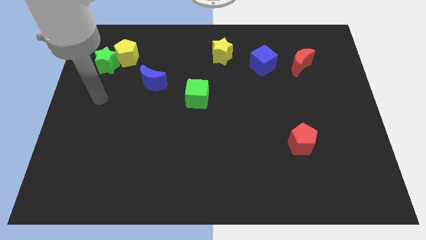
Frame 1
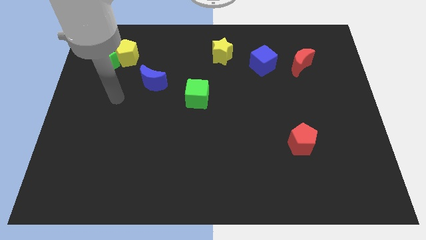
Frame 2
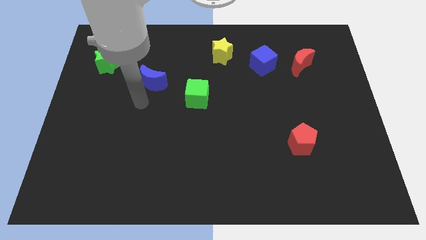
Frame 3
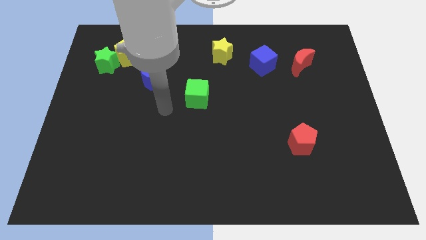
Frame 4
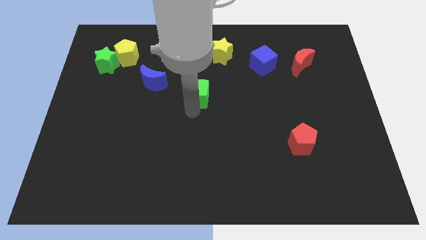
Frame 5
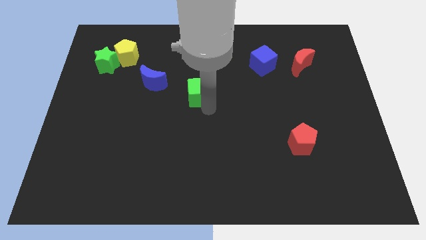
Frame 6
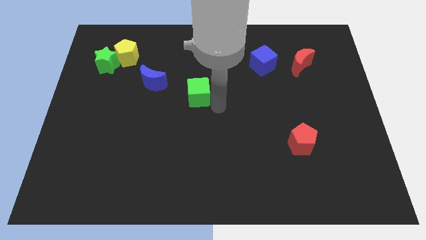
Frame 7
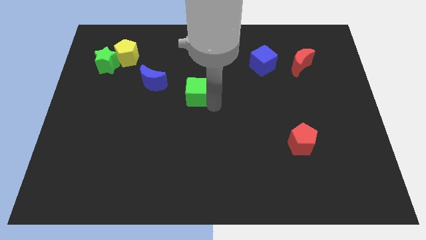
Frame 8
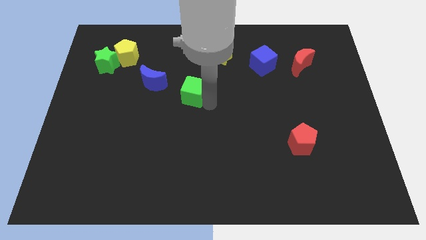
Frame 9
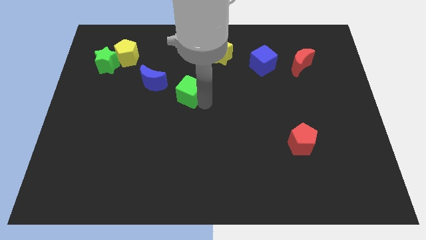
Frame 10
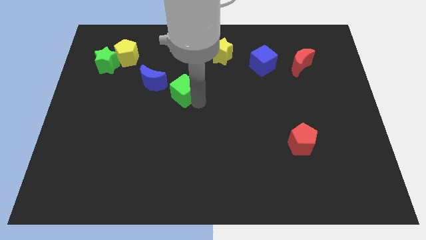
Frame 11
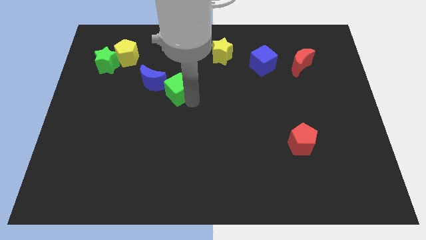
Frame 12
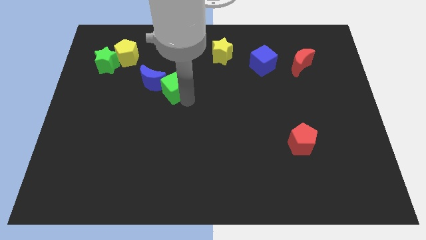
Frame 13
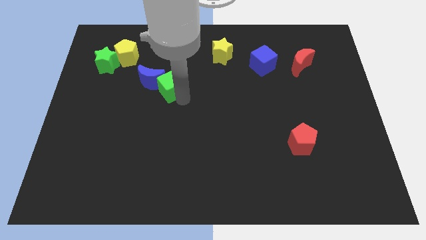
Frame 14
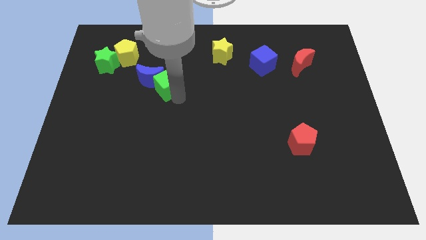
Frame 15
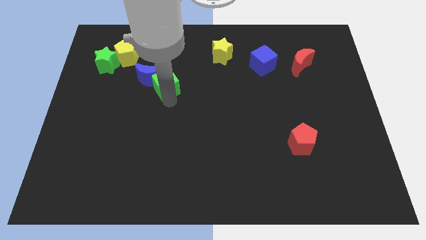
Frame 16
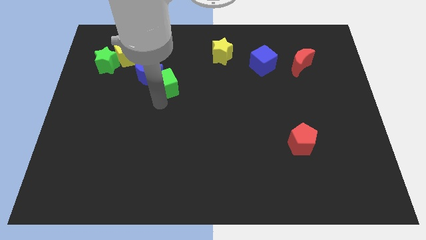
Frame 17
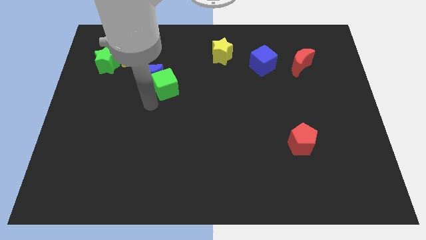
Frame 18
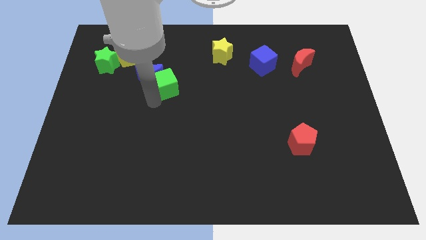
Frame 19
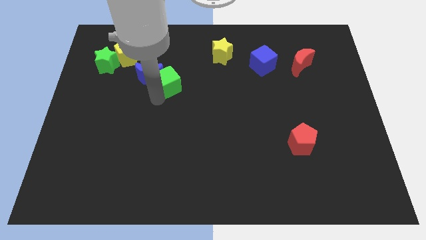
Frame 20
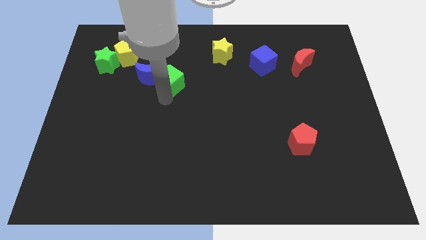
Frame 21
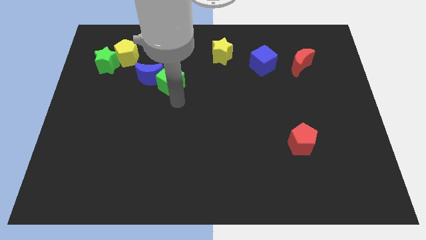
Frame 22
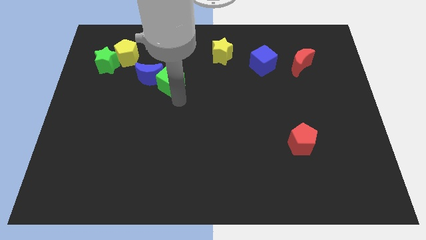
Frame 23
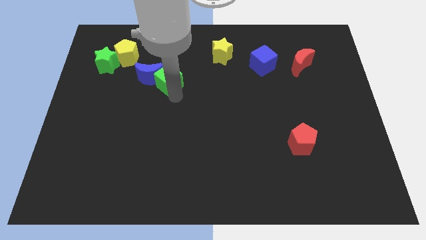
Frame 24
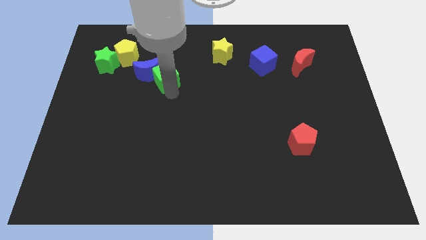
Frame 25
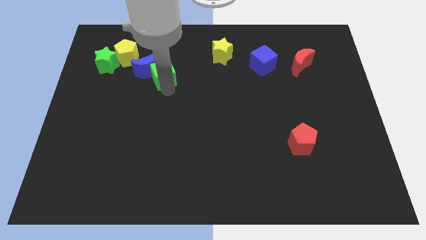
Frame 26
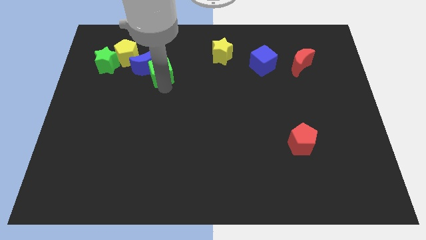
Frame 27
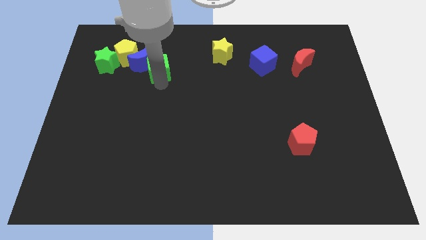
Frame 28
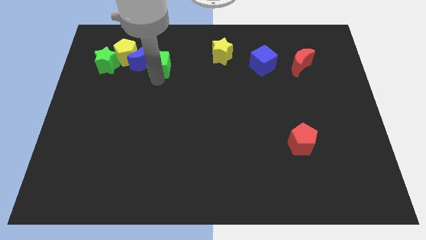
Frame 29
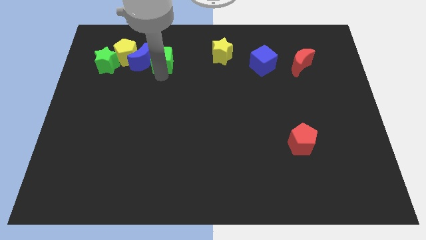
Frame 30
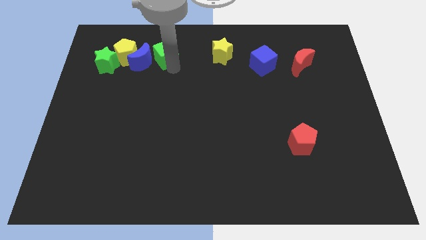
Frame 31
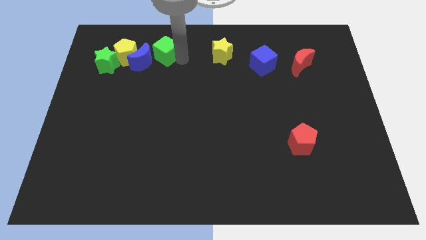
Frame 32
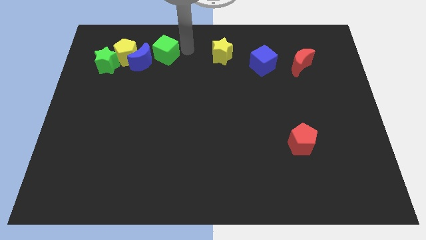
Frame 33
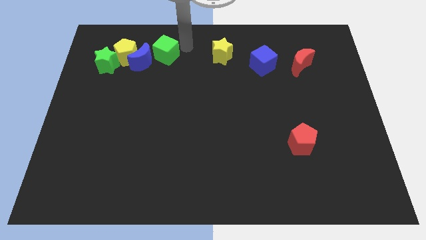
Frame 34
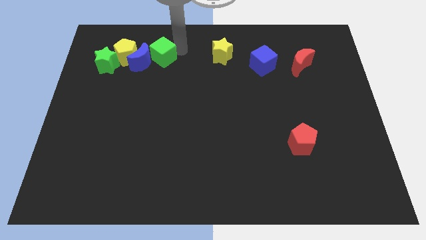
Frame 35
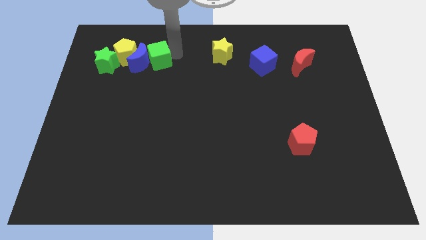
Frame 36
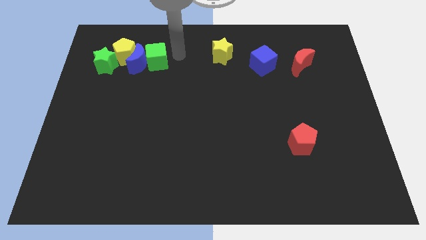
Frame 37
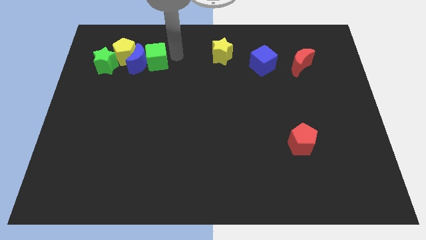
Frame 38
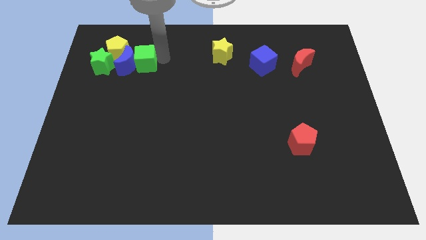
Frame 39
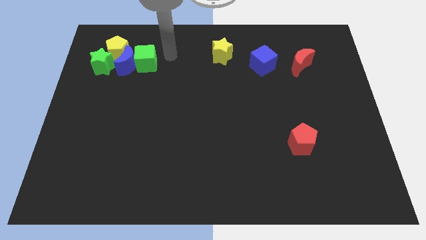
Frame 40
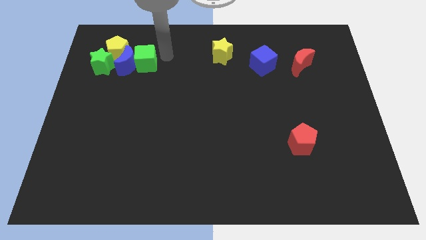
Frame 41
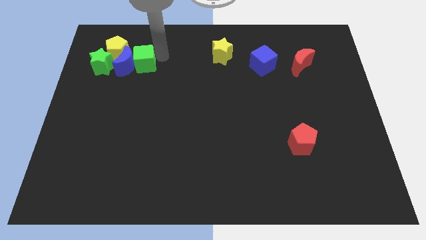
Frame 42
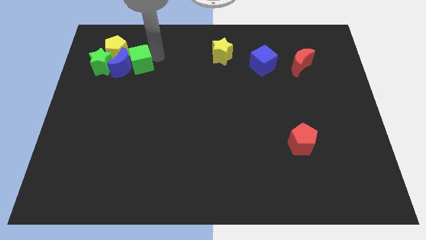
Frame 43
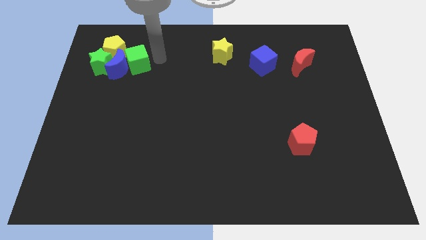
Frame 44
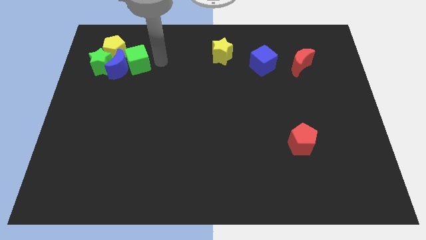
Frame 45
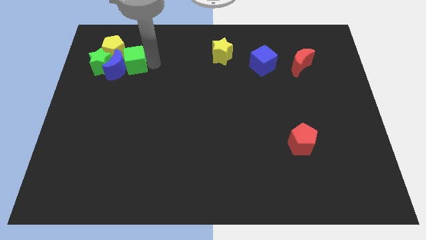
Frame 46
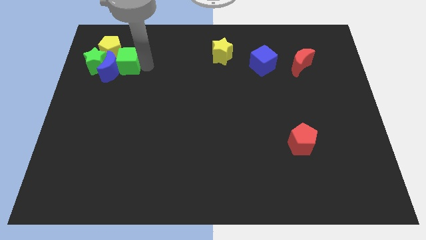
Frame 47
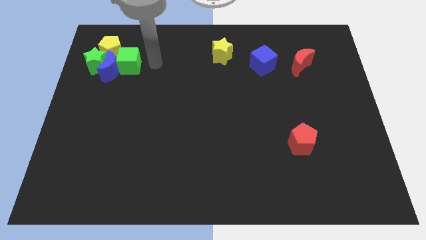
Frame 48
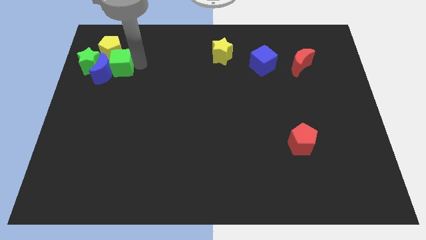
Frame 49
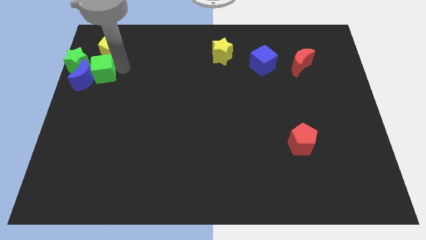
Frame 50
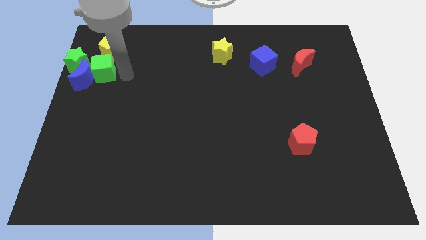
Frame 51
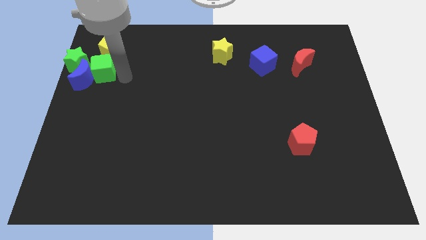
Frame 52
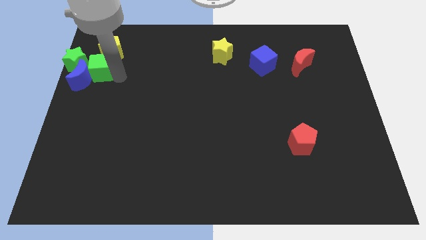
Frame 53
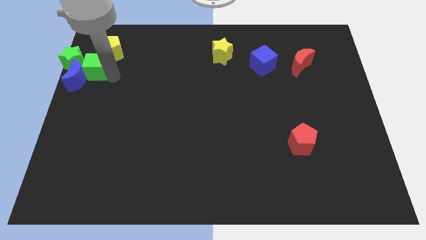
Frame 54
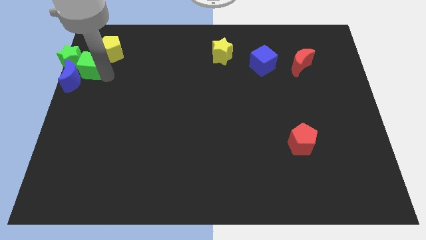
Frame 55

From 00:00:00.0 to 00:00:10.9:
push the green cube close to the green star

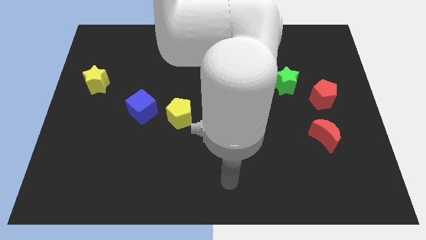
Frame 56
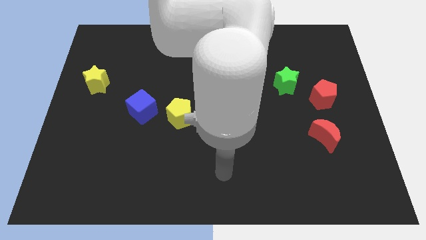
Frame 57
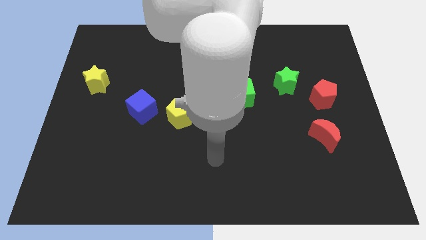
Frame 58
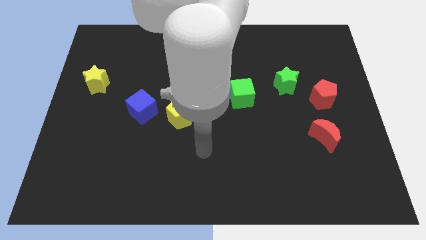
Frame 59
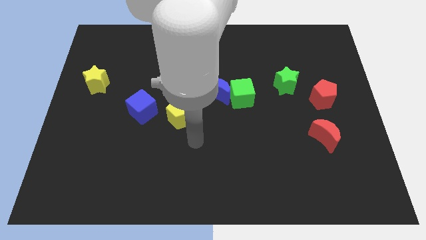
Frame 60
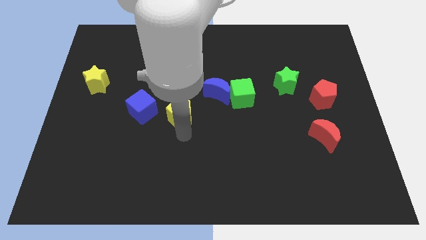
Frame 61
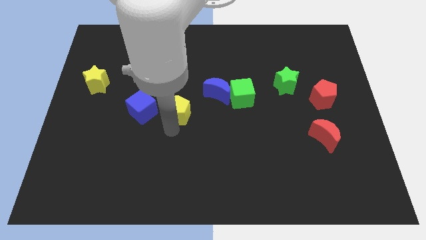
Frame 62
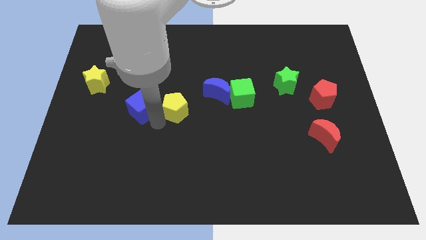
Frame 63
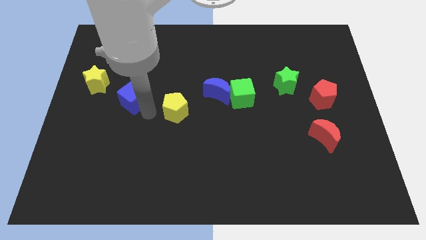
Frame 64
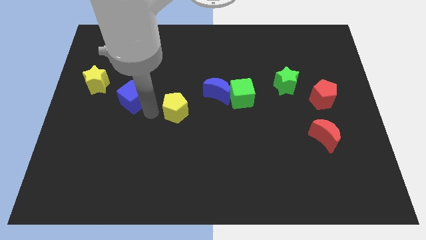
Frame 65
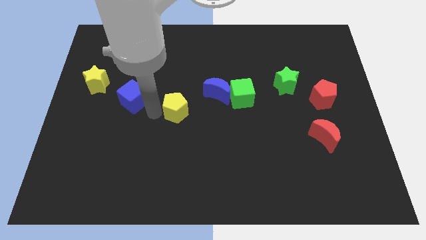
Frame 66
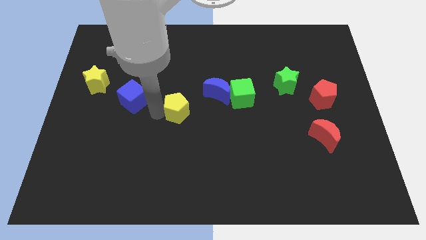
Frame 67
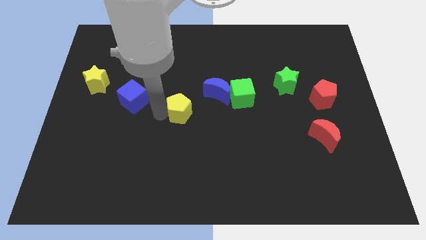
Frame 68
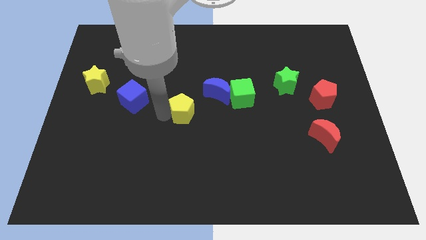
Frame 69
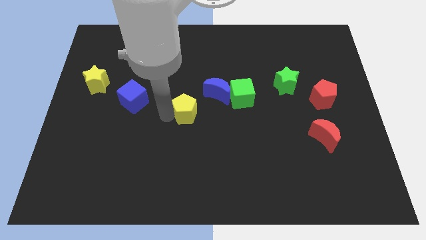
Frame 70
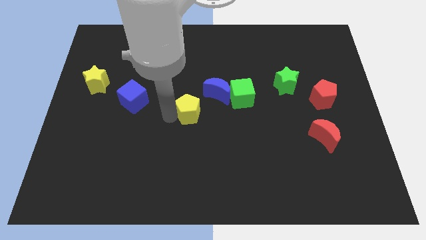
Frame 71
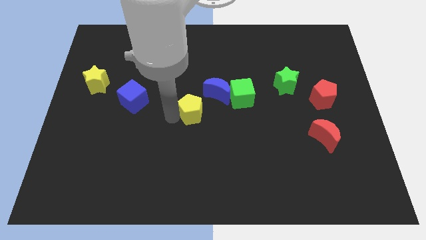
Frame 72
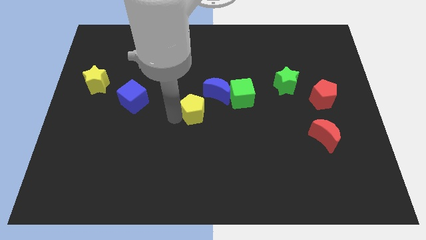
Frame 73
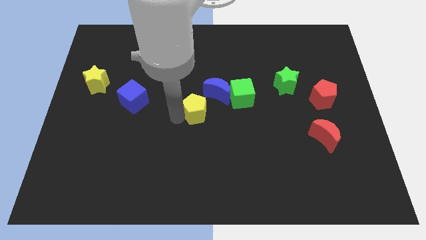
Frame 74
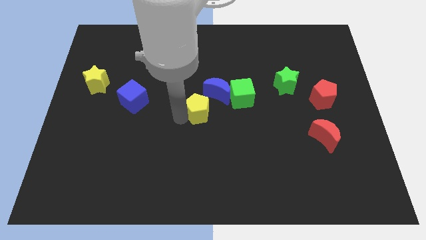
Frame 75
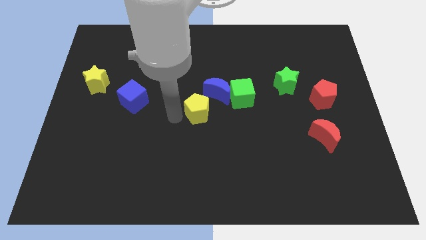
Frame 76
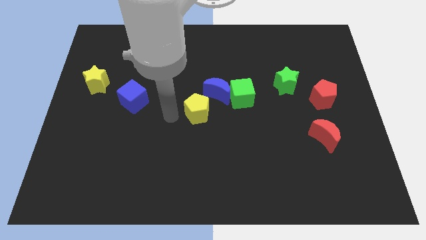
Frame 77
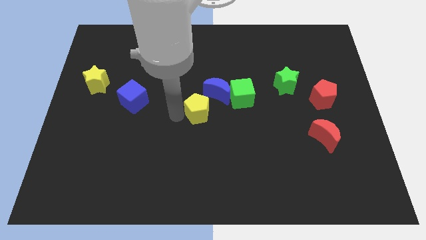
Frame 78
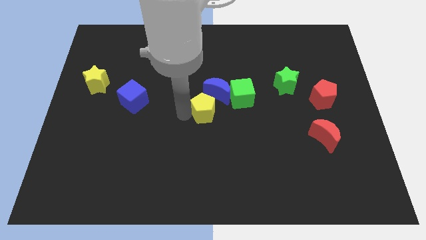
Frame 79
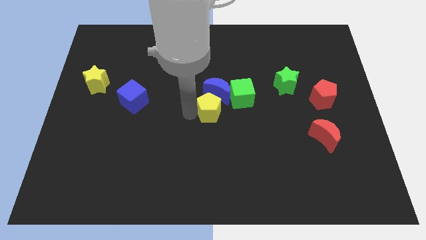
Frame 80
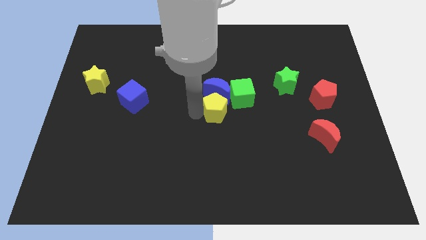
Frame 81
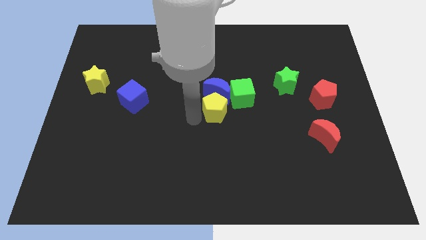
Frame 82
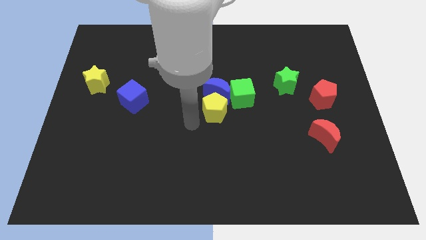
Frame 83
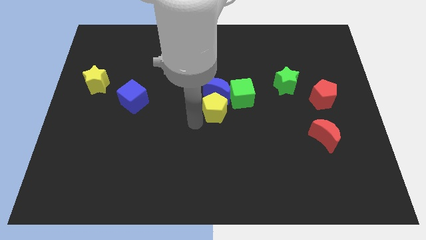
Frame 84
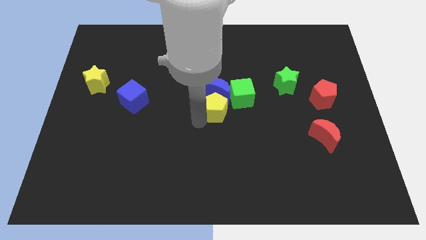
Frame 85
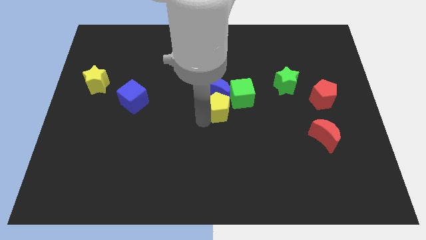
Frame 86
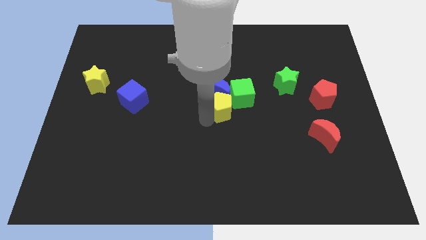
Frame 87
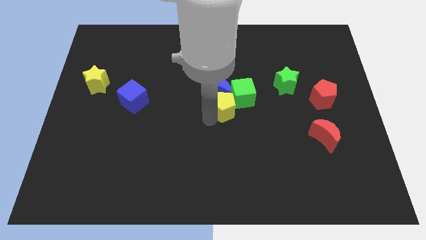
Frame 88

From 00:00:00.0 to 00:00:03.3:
put the yellow pentagon towards the green cube
